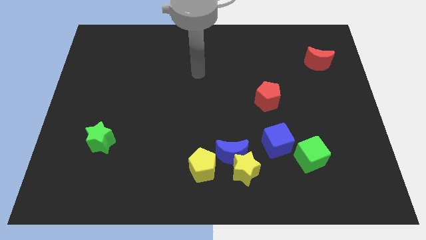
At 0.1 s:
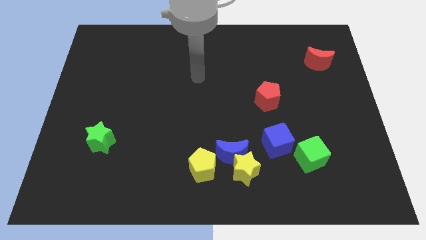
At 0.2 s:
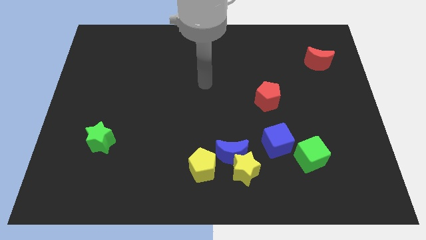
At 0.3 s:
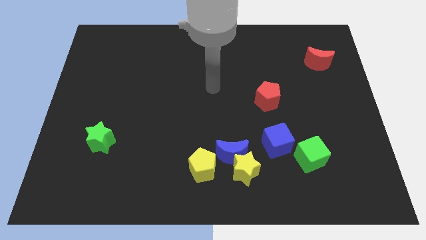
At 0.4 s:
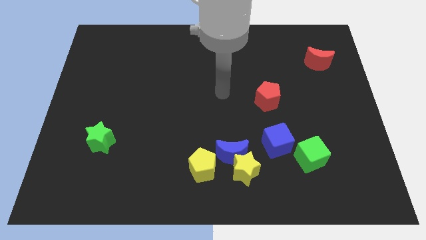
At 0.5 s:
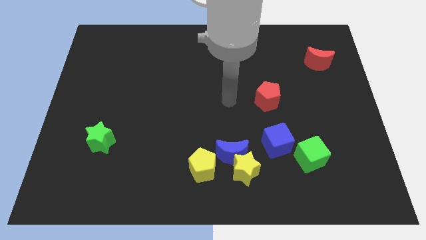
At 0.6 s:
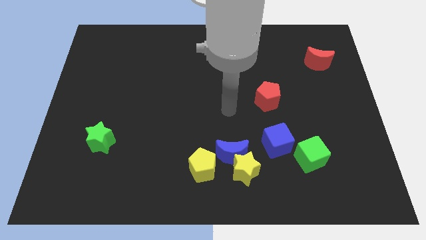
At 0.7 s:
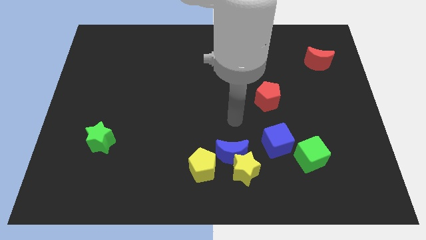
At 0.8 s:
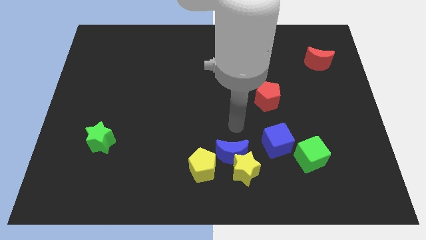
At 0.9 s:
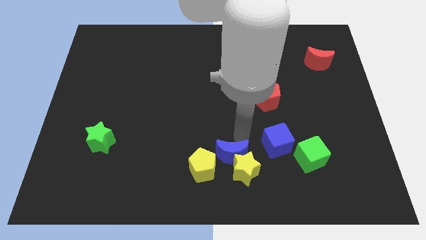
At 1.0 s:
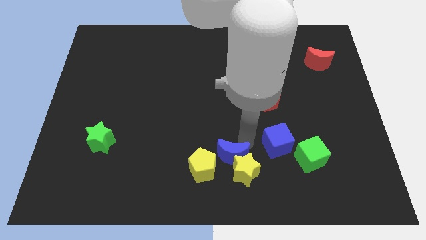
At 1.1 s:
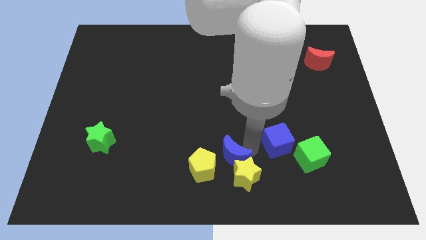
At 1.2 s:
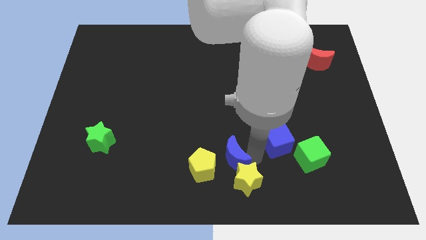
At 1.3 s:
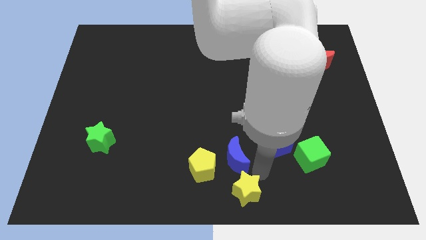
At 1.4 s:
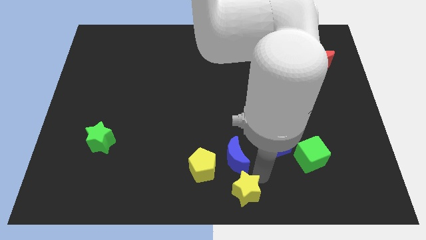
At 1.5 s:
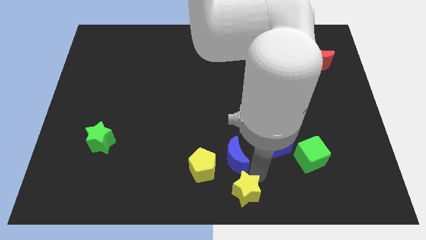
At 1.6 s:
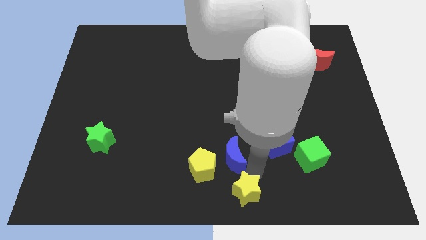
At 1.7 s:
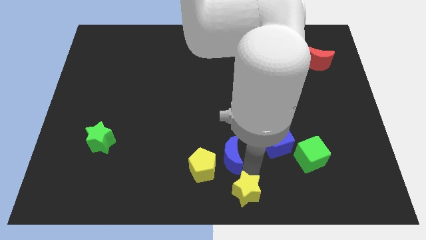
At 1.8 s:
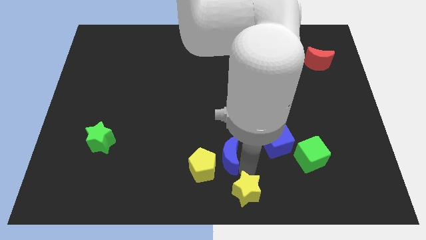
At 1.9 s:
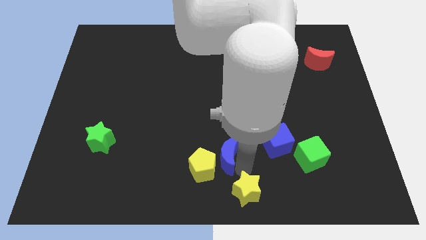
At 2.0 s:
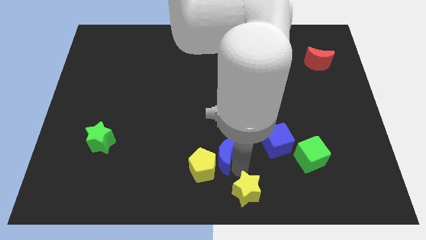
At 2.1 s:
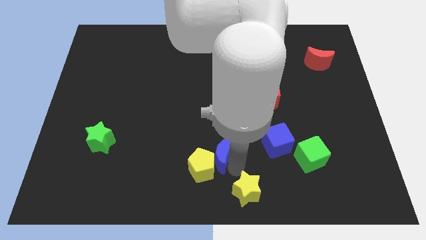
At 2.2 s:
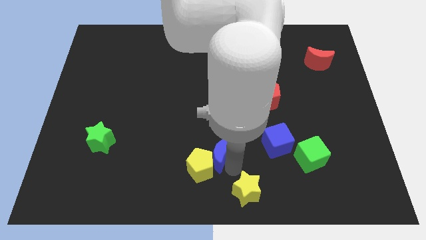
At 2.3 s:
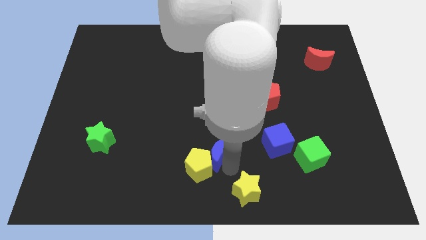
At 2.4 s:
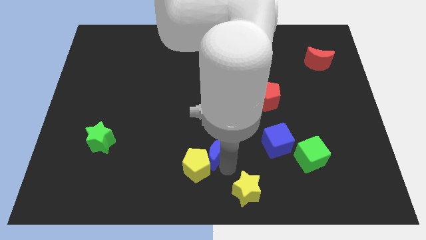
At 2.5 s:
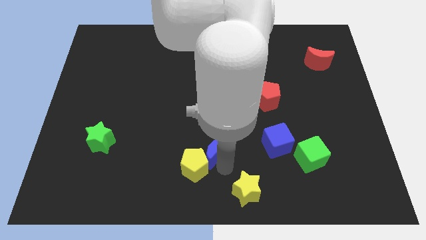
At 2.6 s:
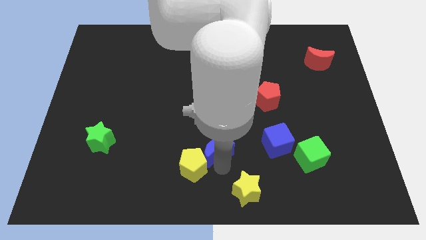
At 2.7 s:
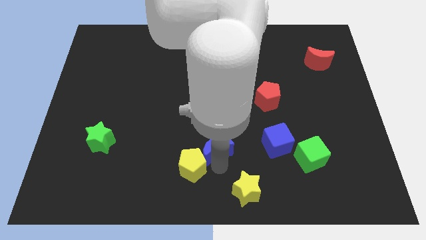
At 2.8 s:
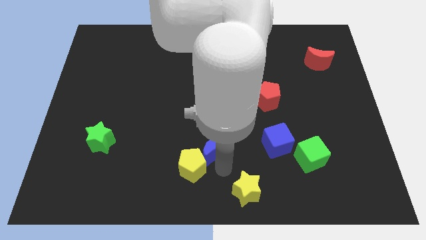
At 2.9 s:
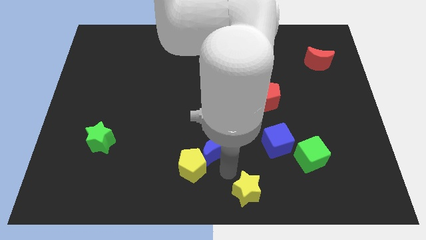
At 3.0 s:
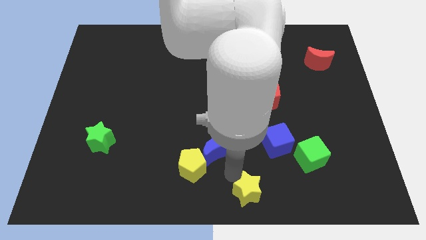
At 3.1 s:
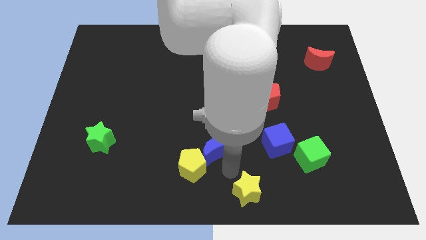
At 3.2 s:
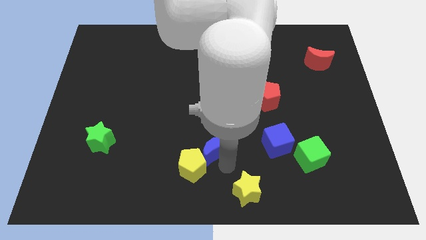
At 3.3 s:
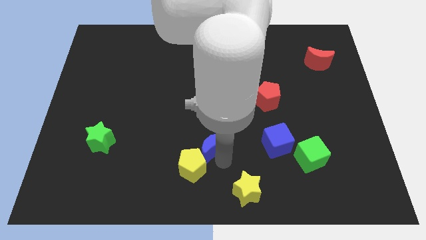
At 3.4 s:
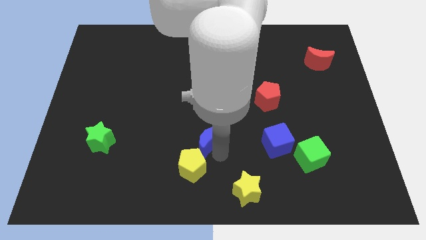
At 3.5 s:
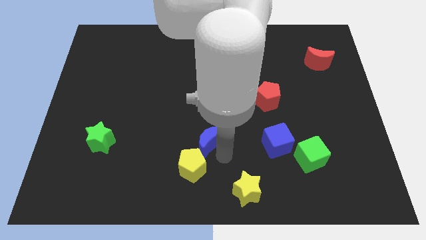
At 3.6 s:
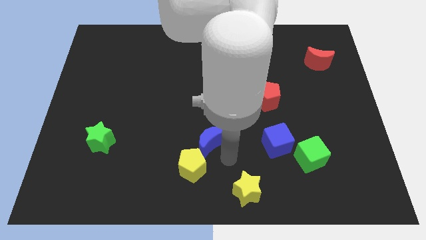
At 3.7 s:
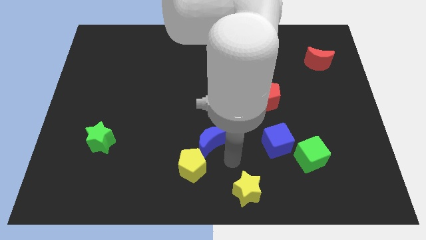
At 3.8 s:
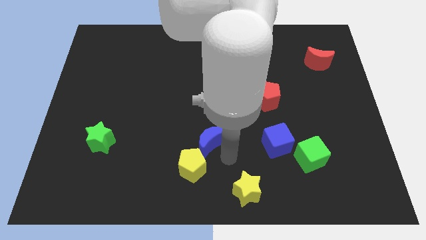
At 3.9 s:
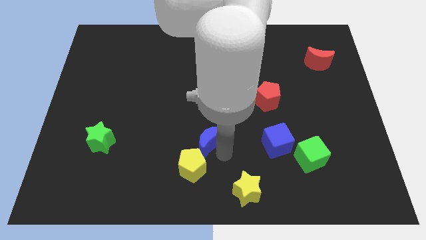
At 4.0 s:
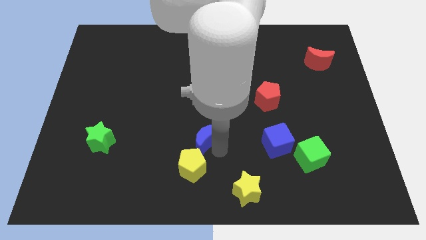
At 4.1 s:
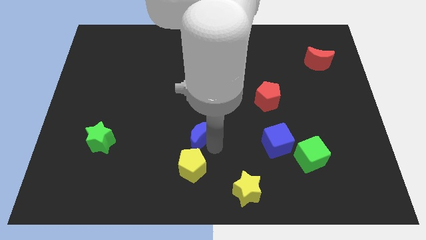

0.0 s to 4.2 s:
move the blue moon away from the yellow star, yellow pentagon, and blue cube

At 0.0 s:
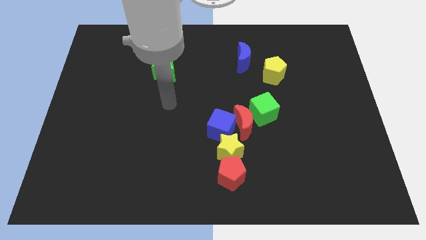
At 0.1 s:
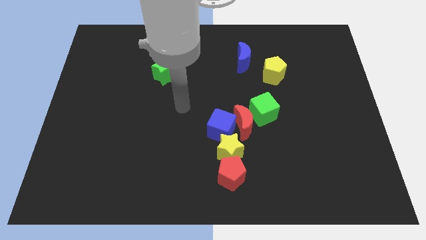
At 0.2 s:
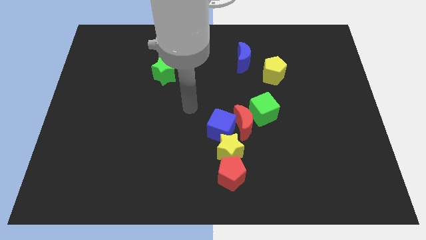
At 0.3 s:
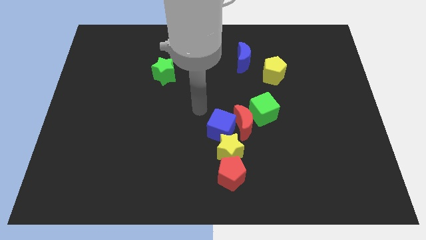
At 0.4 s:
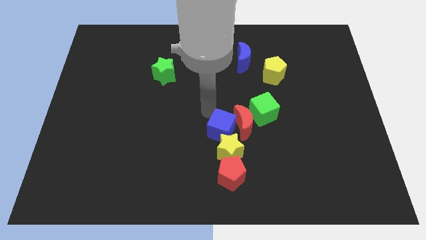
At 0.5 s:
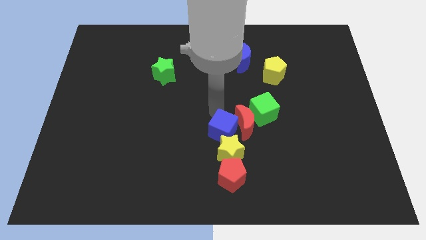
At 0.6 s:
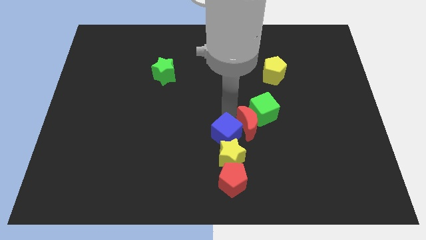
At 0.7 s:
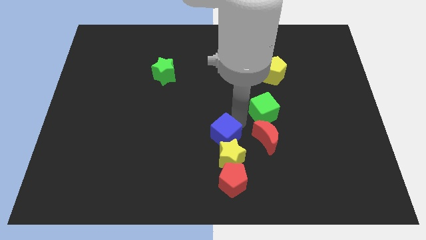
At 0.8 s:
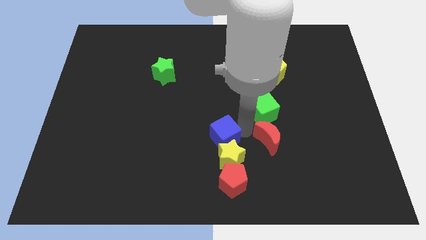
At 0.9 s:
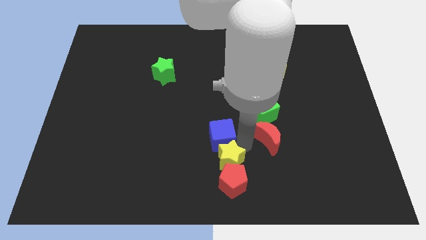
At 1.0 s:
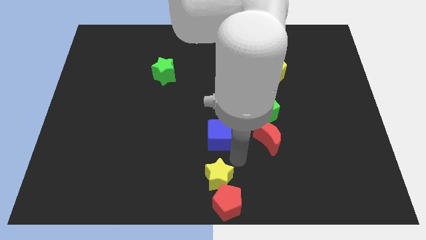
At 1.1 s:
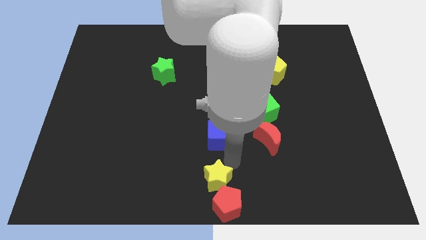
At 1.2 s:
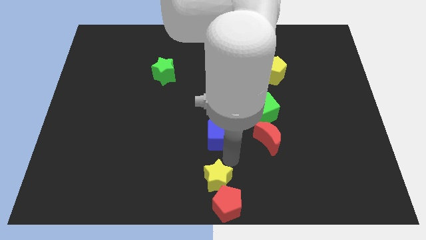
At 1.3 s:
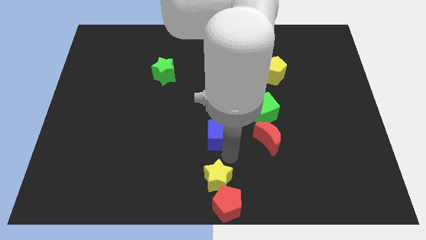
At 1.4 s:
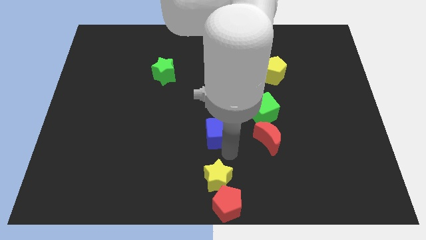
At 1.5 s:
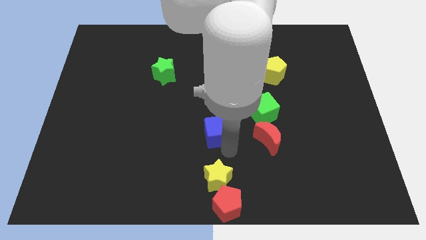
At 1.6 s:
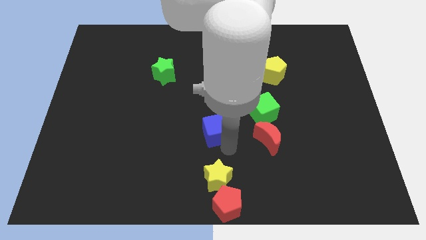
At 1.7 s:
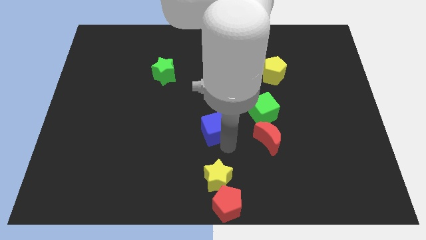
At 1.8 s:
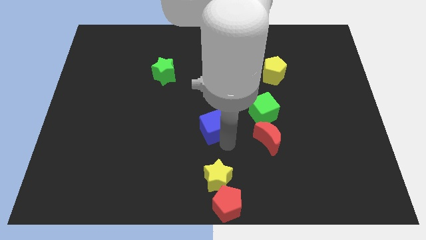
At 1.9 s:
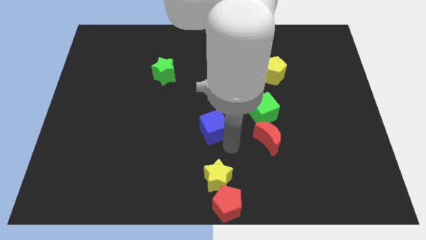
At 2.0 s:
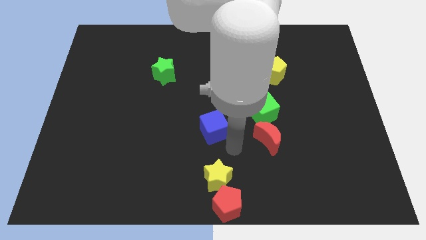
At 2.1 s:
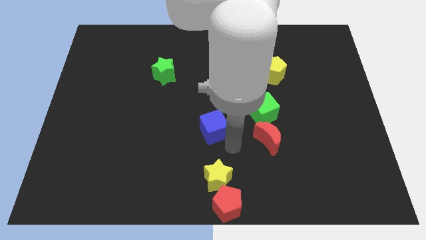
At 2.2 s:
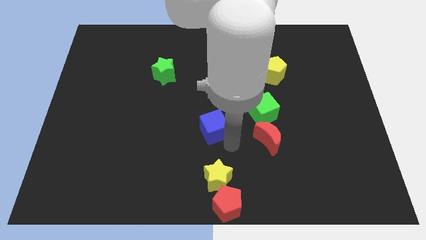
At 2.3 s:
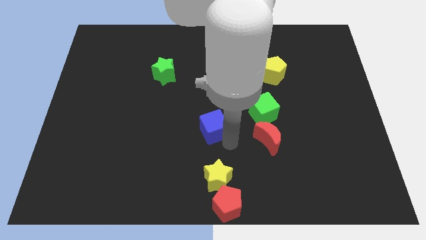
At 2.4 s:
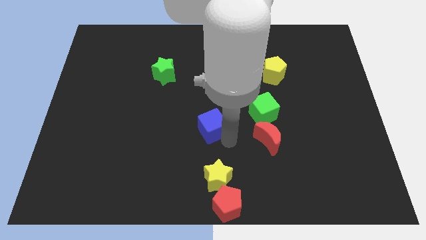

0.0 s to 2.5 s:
pull the blue cube apart from the red moon and yellow star

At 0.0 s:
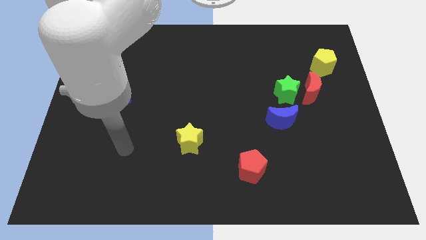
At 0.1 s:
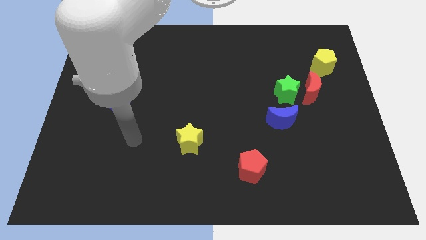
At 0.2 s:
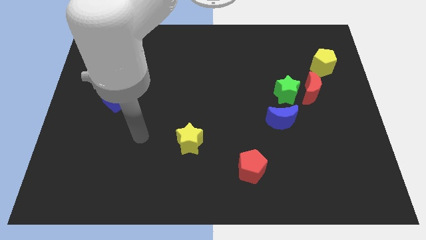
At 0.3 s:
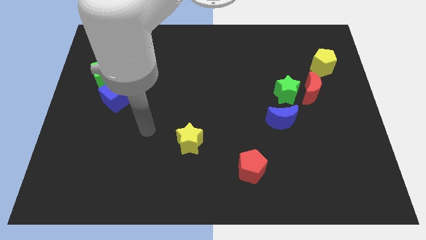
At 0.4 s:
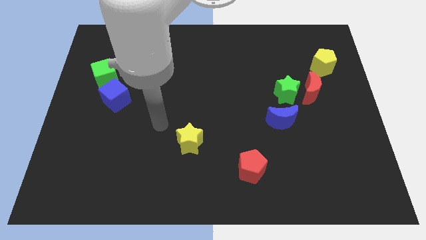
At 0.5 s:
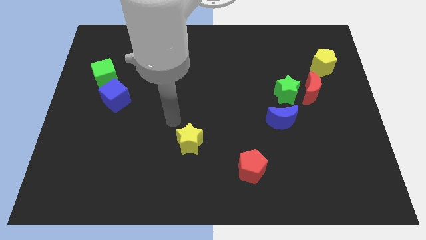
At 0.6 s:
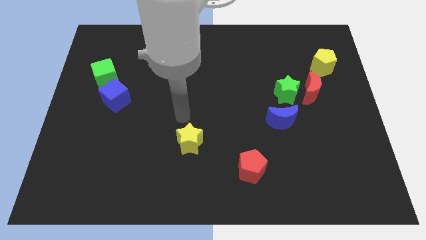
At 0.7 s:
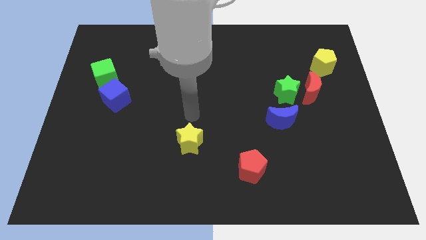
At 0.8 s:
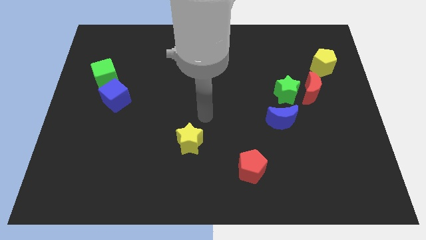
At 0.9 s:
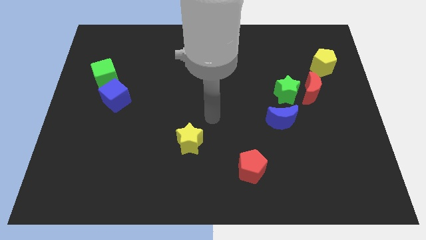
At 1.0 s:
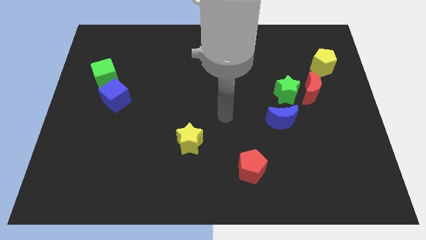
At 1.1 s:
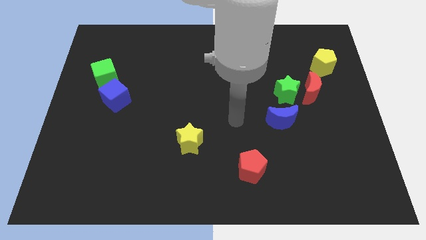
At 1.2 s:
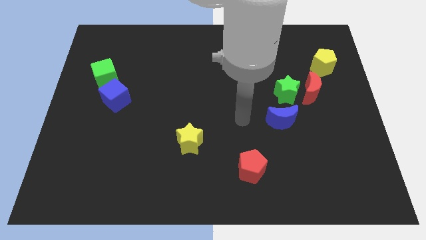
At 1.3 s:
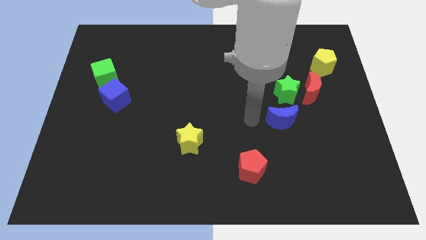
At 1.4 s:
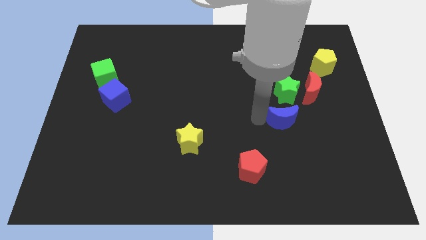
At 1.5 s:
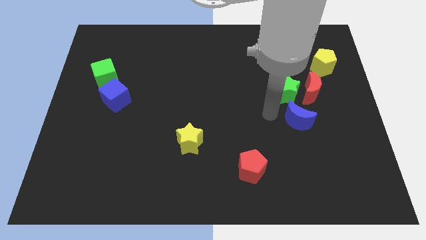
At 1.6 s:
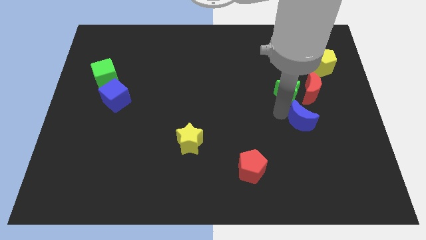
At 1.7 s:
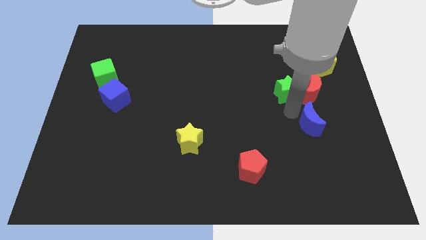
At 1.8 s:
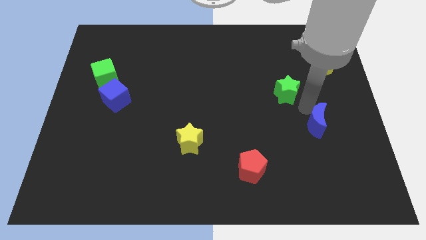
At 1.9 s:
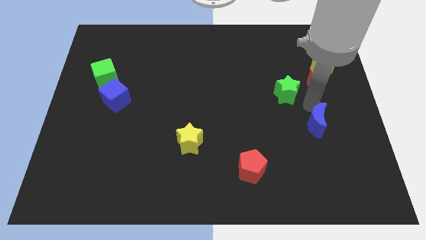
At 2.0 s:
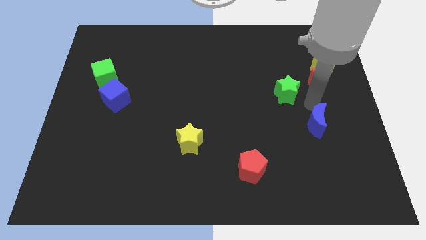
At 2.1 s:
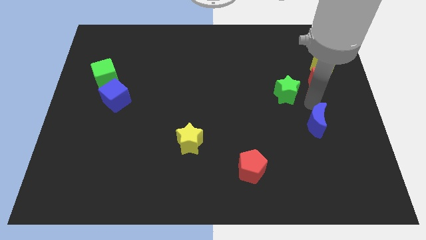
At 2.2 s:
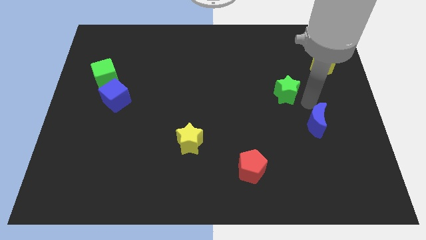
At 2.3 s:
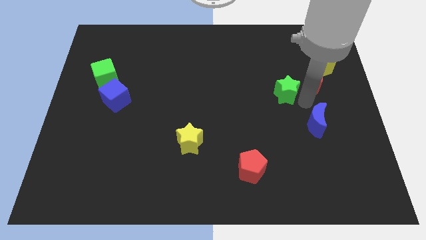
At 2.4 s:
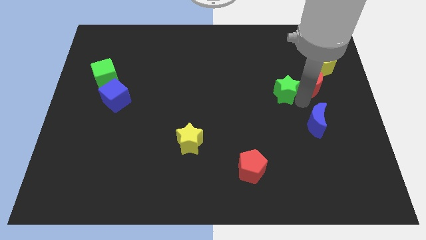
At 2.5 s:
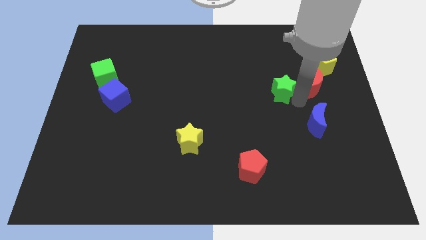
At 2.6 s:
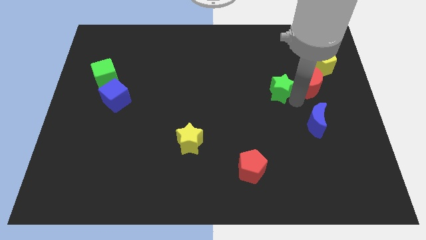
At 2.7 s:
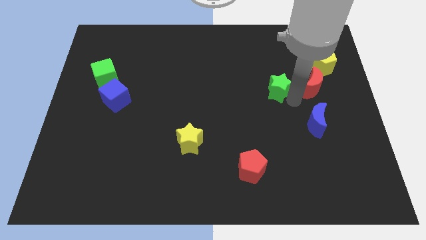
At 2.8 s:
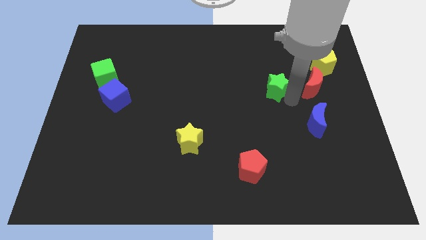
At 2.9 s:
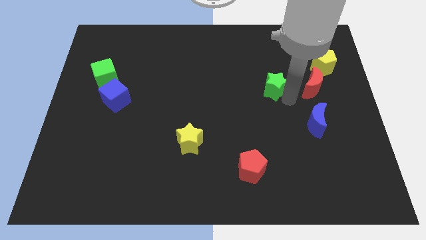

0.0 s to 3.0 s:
move the green star away from the red moon and blue moon
